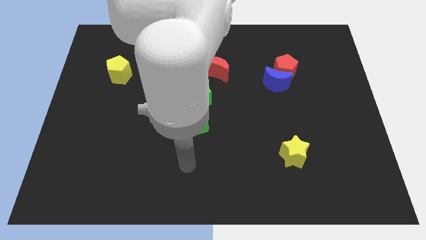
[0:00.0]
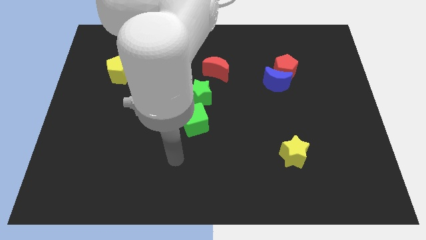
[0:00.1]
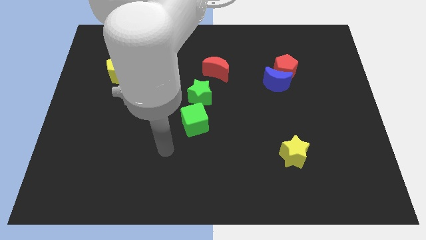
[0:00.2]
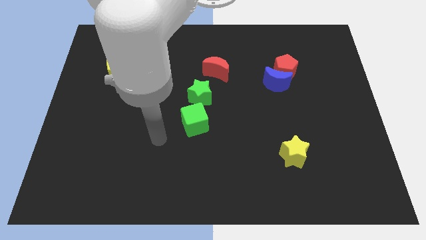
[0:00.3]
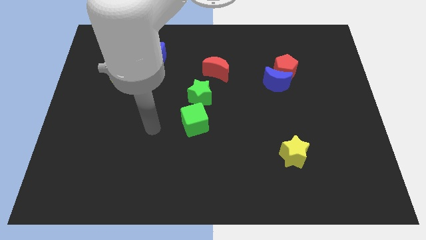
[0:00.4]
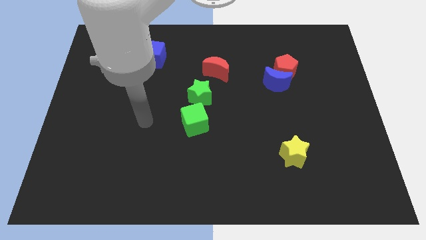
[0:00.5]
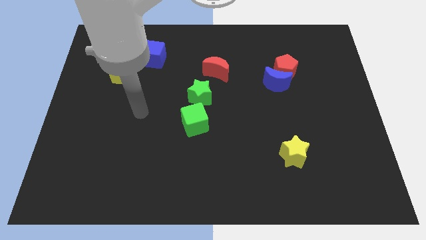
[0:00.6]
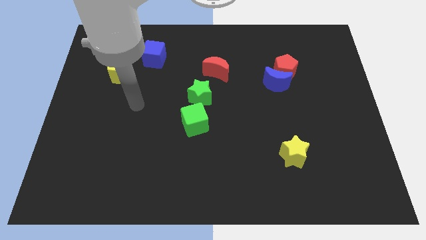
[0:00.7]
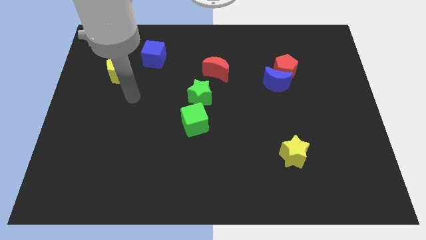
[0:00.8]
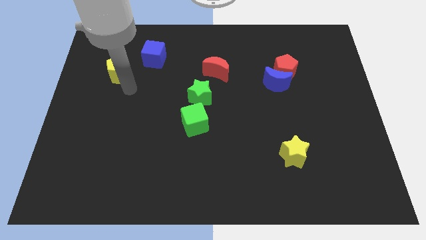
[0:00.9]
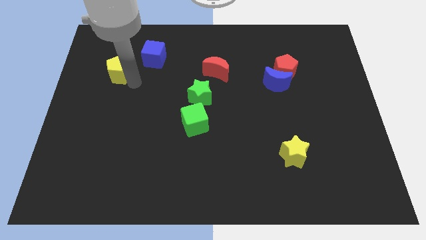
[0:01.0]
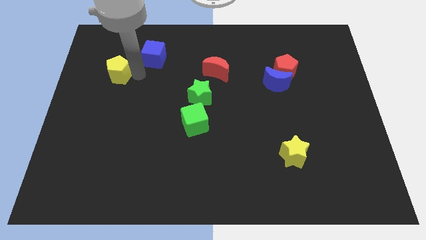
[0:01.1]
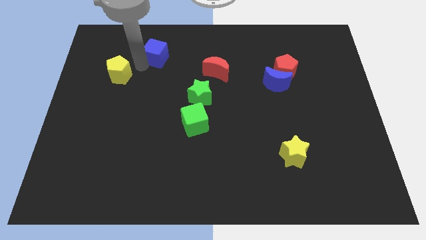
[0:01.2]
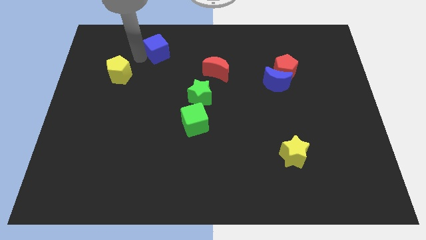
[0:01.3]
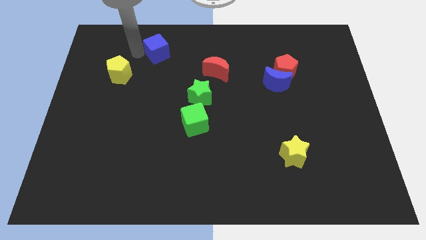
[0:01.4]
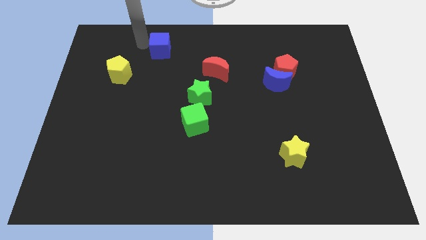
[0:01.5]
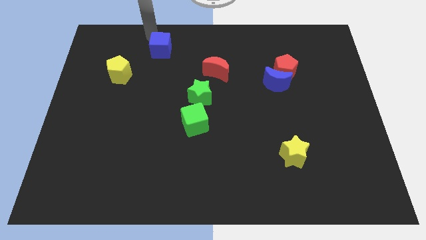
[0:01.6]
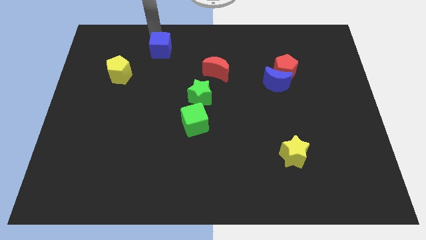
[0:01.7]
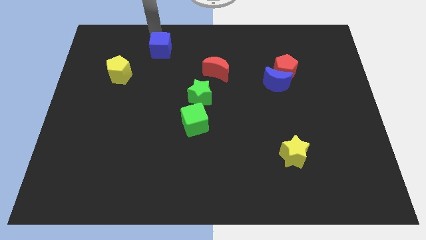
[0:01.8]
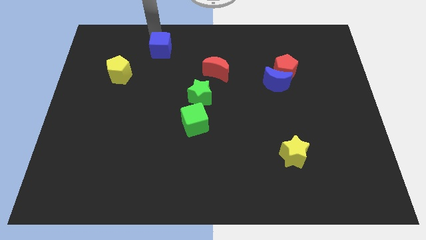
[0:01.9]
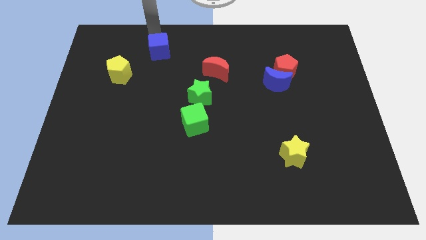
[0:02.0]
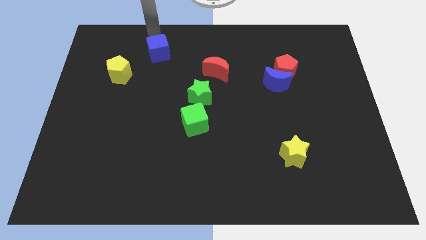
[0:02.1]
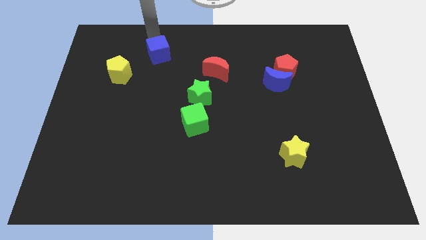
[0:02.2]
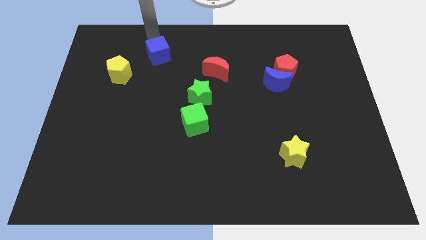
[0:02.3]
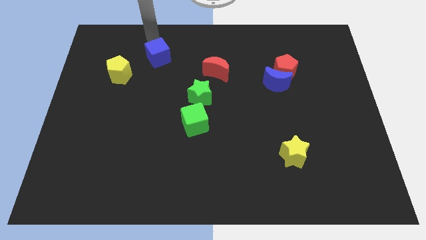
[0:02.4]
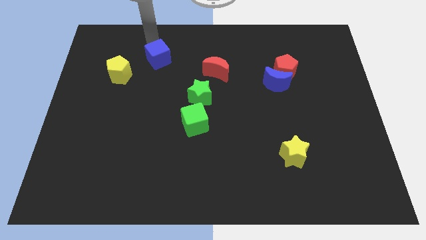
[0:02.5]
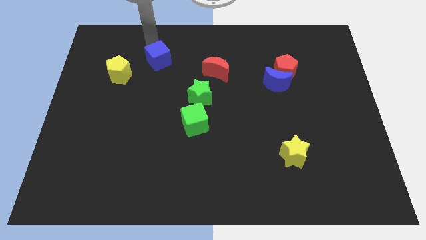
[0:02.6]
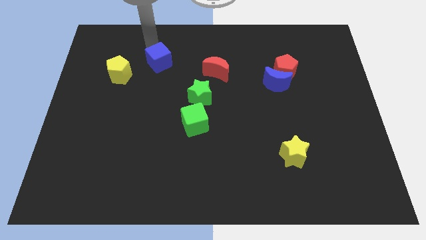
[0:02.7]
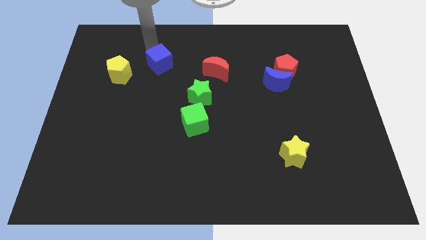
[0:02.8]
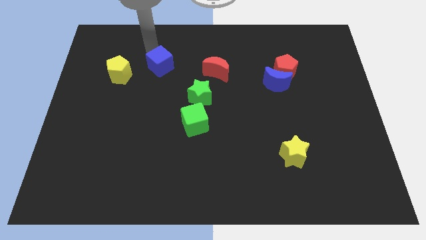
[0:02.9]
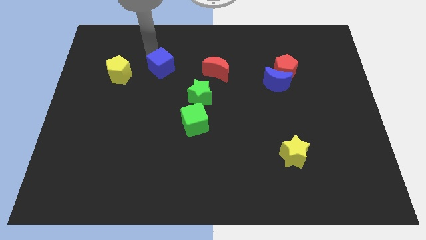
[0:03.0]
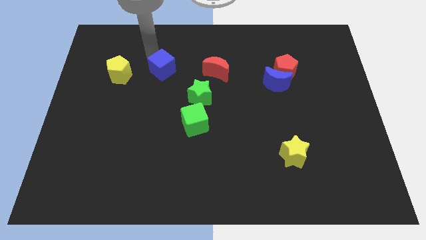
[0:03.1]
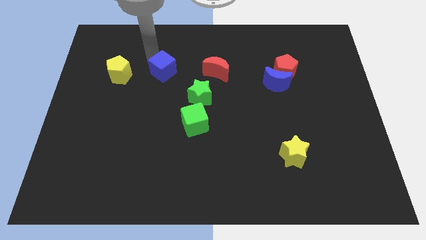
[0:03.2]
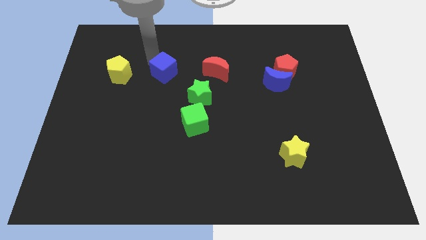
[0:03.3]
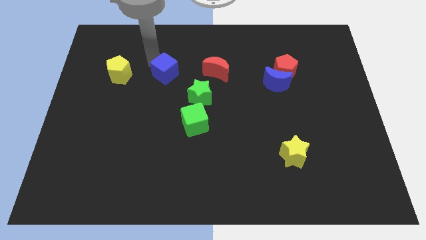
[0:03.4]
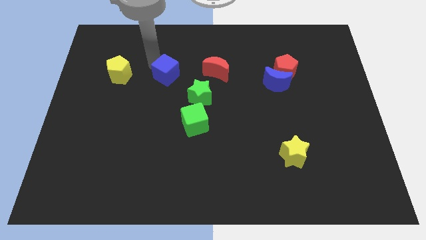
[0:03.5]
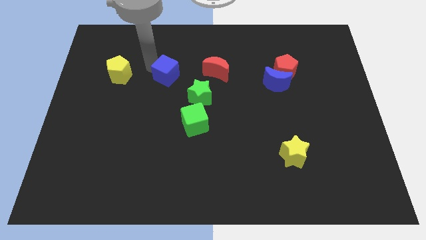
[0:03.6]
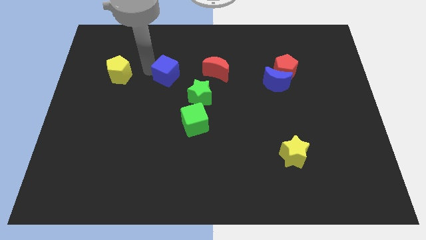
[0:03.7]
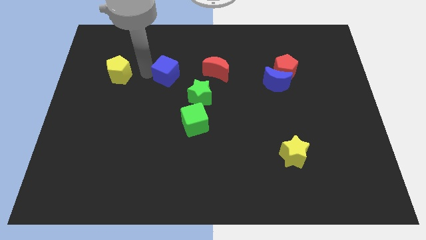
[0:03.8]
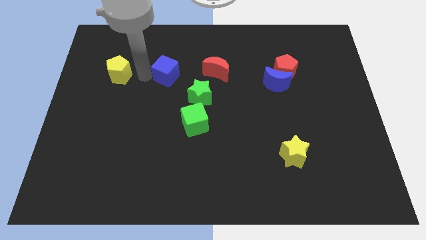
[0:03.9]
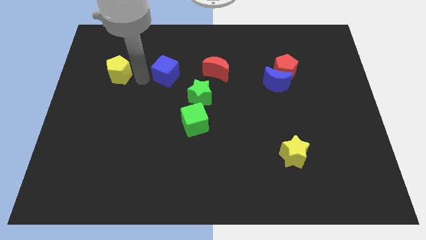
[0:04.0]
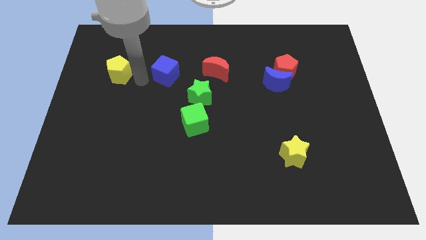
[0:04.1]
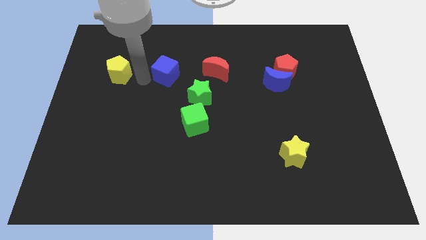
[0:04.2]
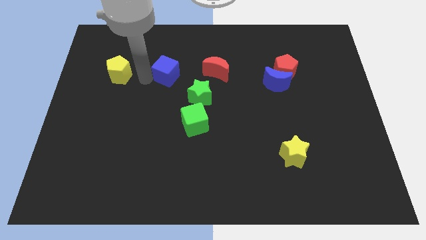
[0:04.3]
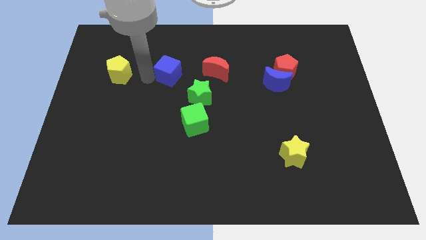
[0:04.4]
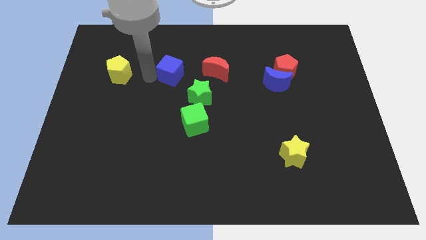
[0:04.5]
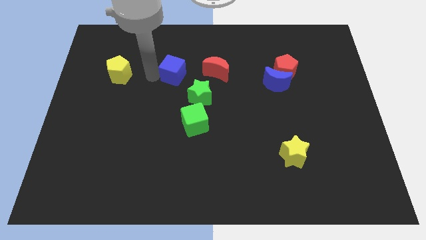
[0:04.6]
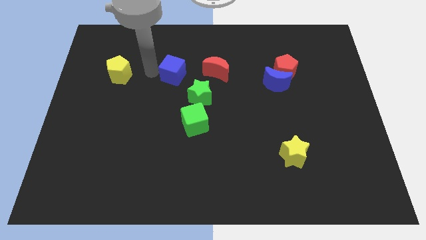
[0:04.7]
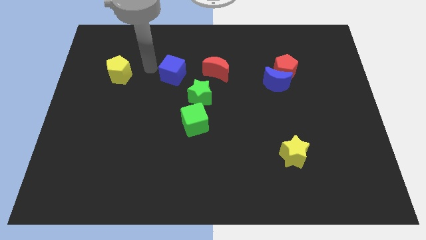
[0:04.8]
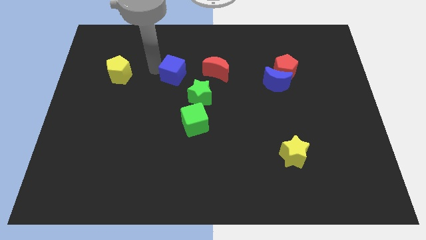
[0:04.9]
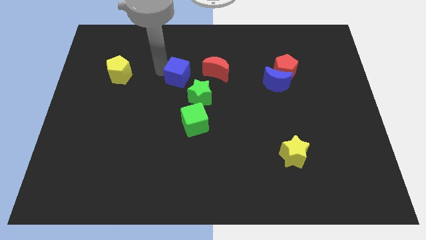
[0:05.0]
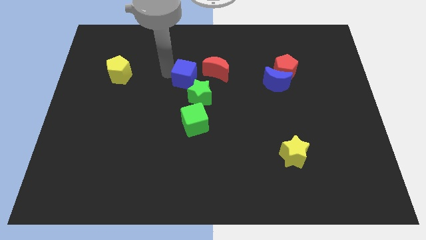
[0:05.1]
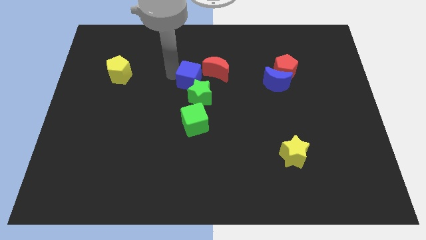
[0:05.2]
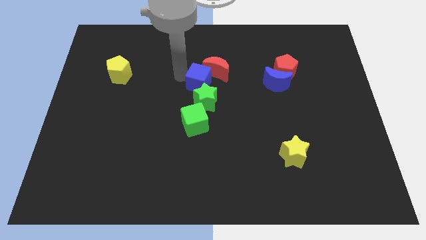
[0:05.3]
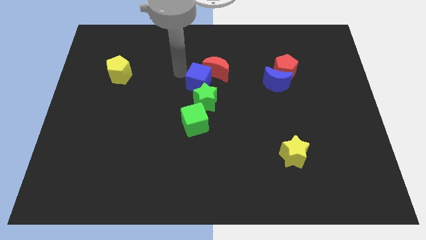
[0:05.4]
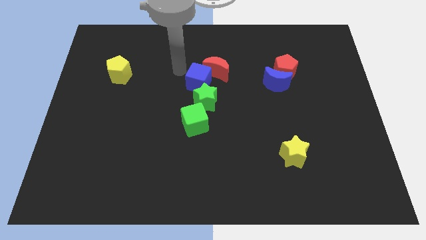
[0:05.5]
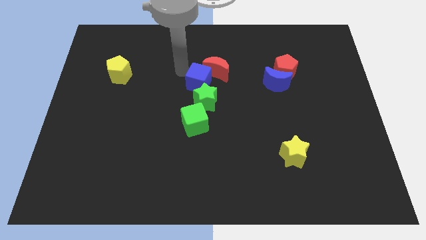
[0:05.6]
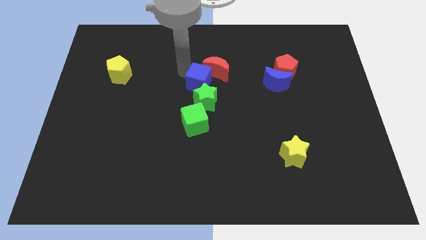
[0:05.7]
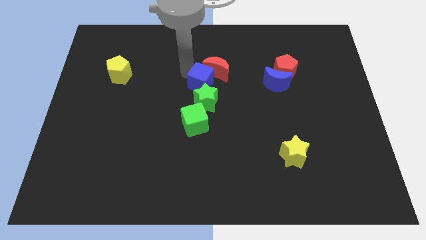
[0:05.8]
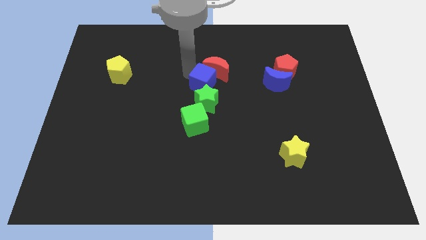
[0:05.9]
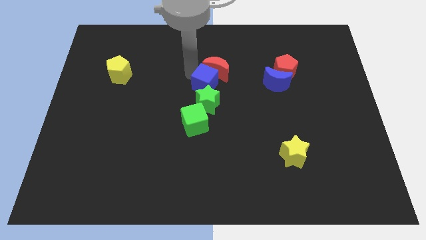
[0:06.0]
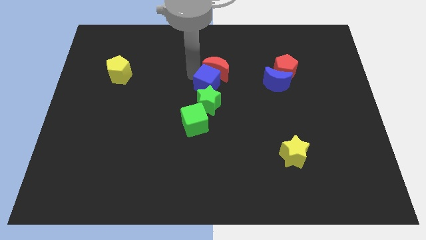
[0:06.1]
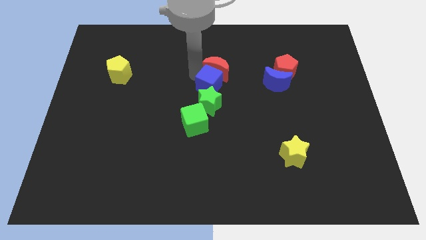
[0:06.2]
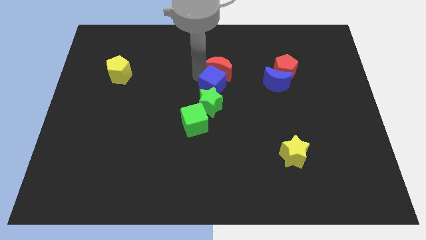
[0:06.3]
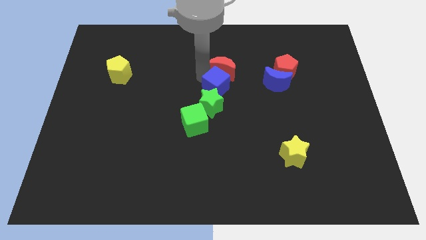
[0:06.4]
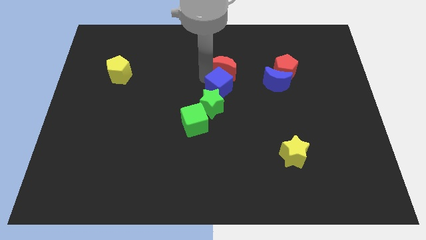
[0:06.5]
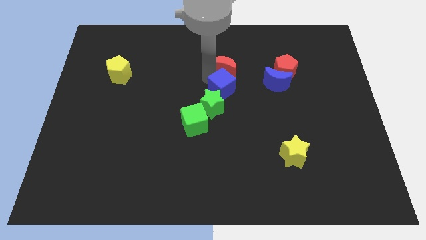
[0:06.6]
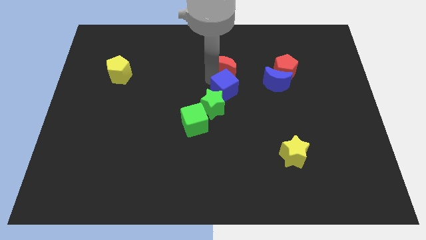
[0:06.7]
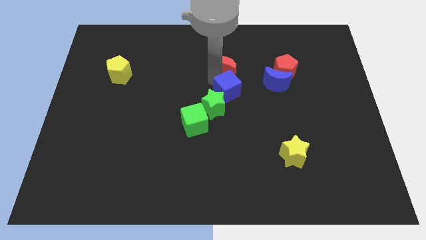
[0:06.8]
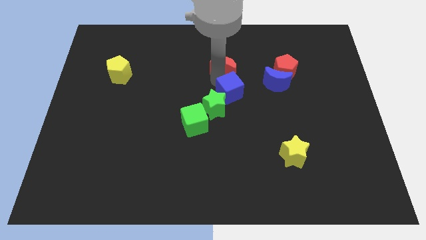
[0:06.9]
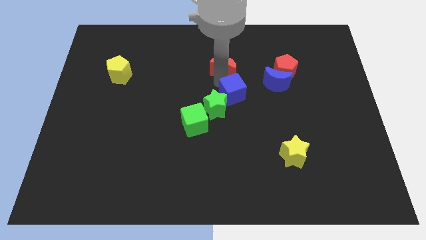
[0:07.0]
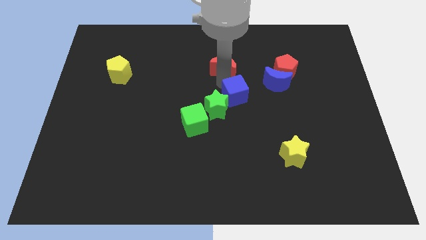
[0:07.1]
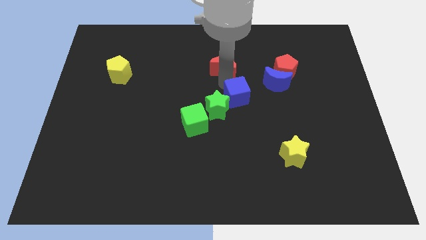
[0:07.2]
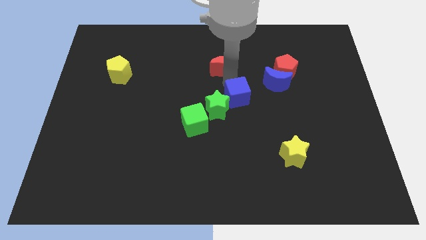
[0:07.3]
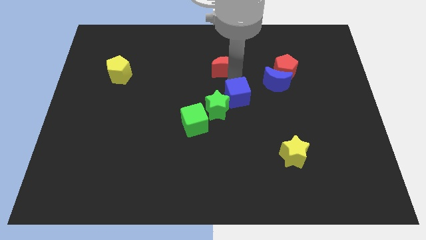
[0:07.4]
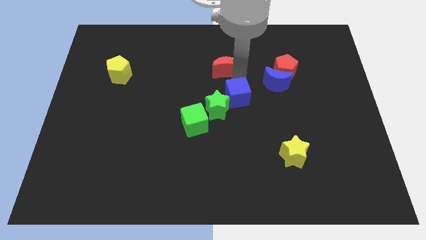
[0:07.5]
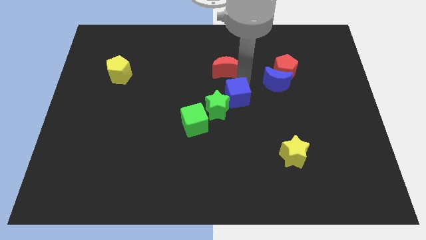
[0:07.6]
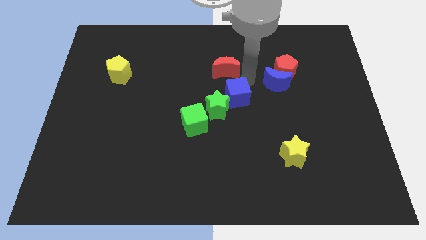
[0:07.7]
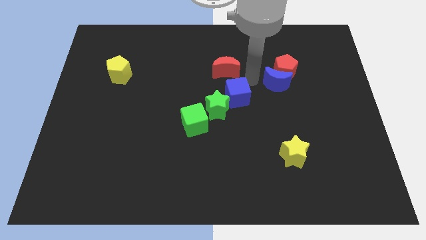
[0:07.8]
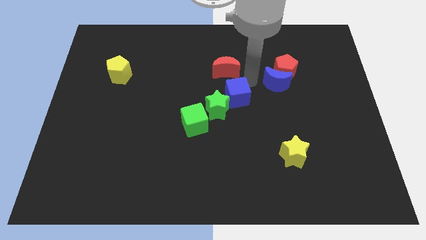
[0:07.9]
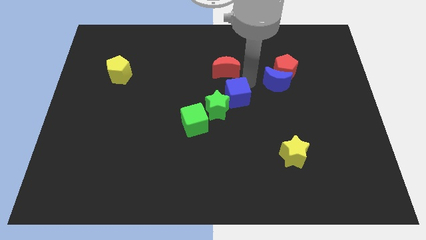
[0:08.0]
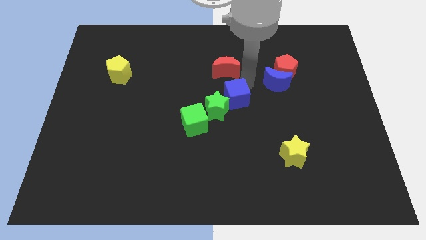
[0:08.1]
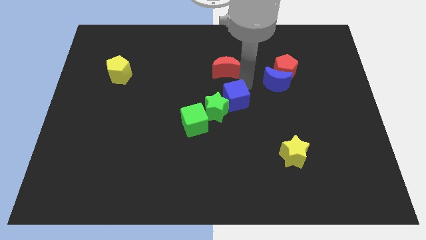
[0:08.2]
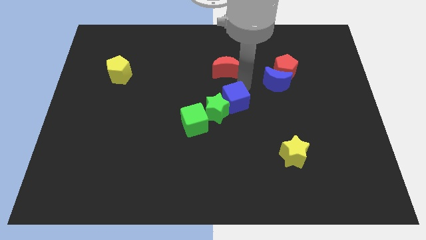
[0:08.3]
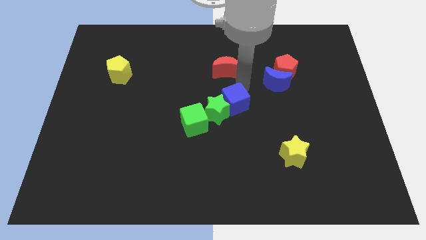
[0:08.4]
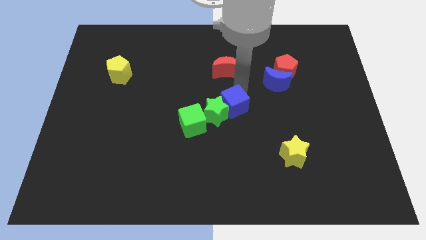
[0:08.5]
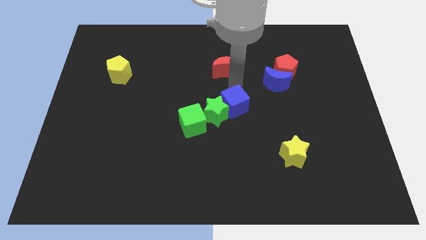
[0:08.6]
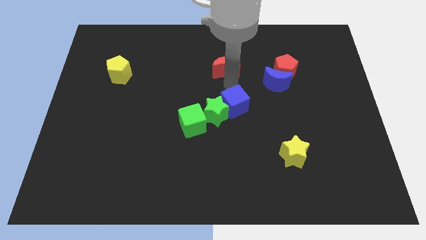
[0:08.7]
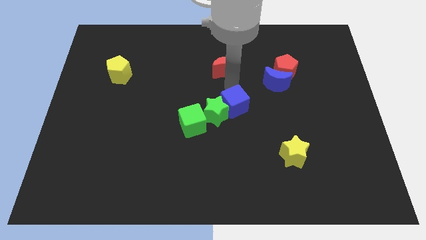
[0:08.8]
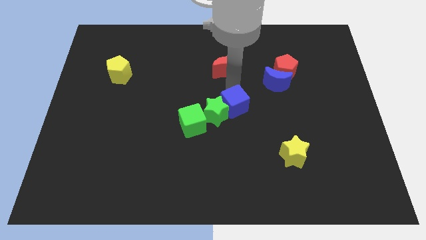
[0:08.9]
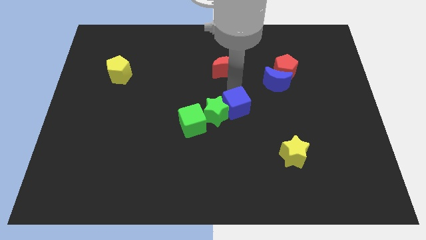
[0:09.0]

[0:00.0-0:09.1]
slide the blue cube just right of the green cube
